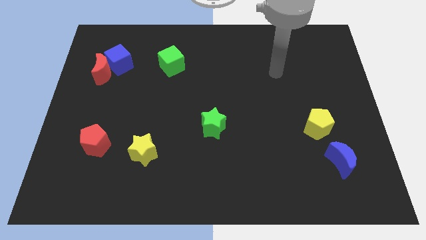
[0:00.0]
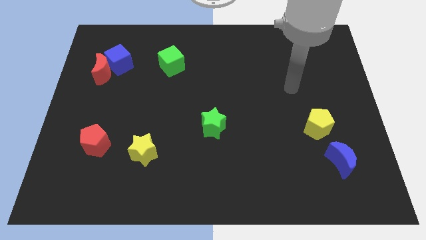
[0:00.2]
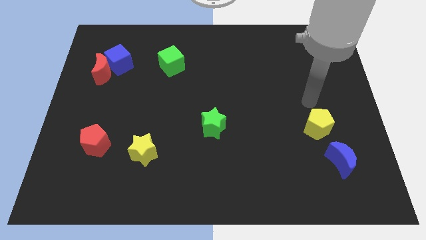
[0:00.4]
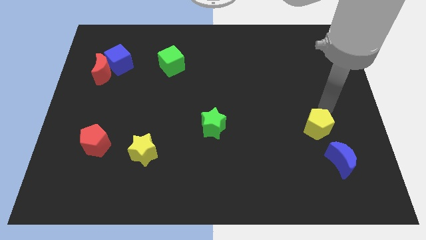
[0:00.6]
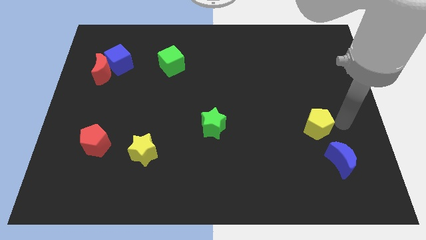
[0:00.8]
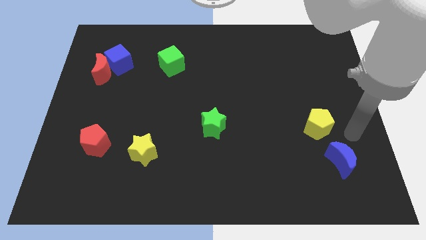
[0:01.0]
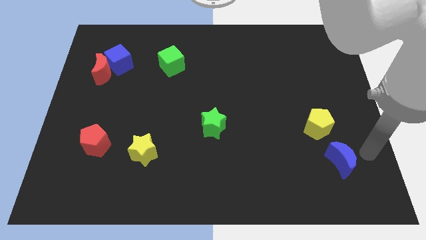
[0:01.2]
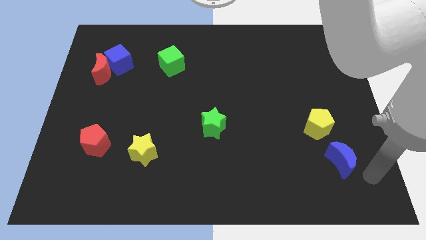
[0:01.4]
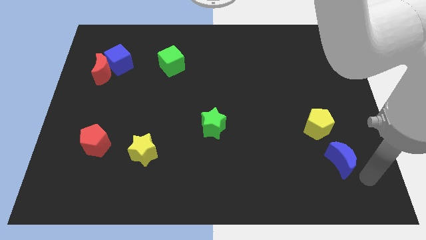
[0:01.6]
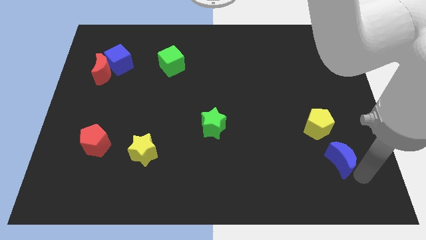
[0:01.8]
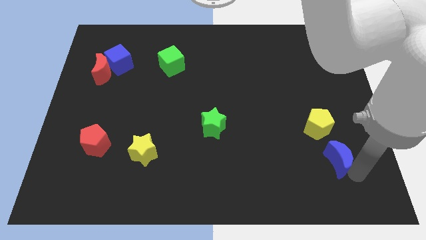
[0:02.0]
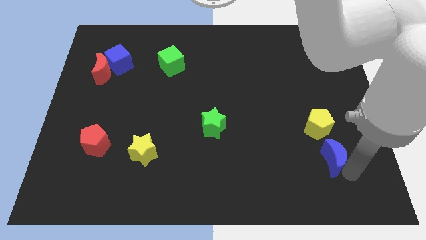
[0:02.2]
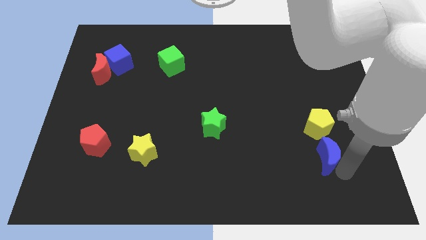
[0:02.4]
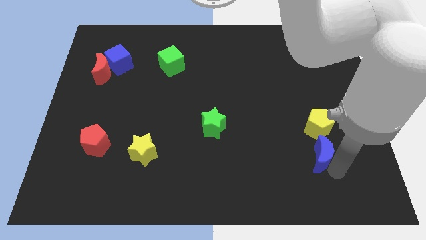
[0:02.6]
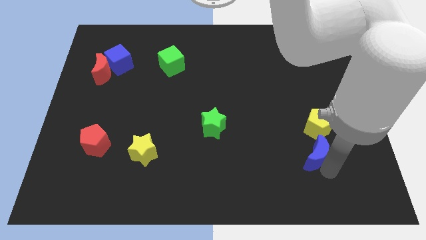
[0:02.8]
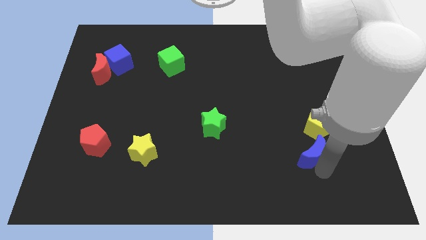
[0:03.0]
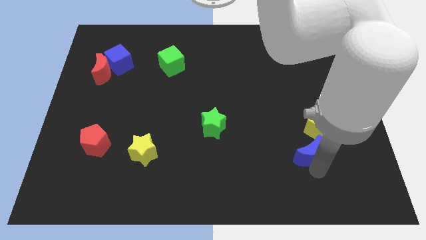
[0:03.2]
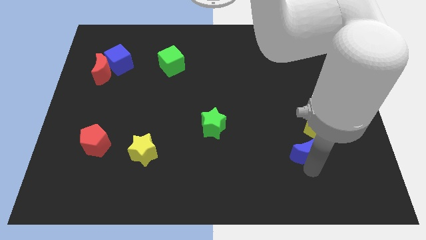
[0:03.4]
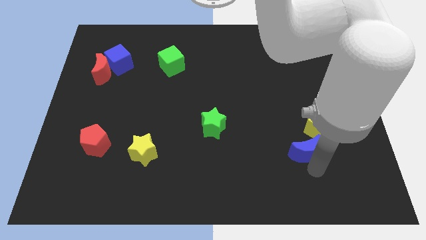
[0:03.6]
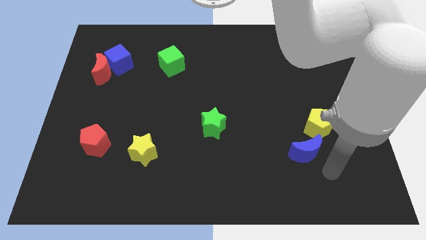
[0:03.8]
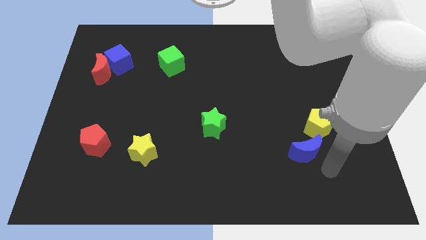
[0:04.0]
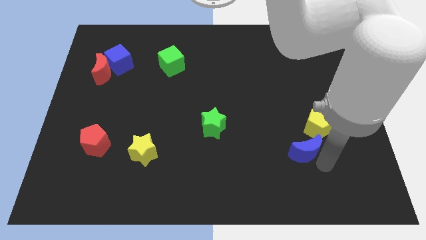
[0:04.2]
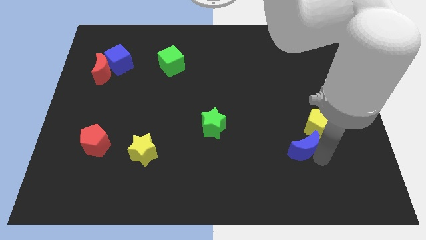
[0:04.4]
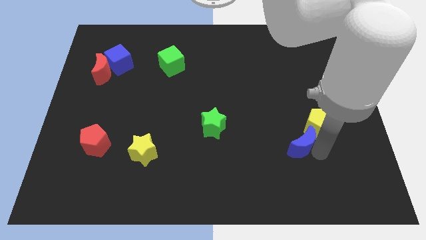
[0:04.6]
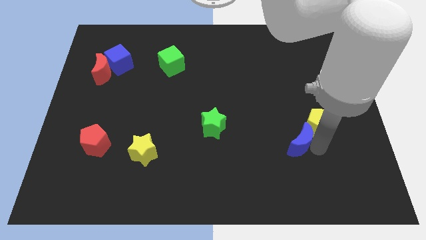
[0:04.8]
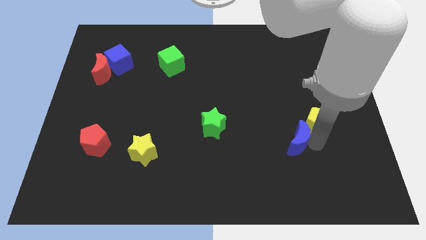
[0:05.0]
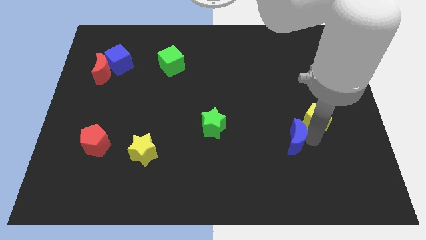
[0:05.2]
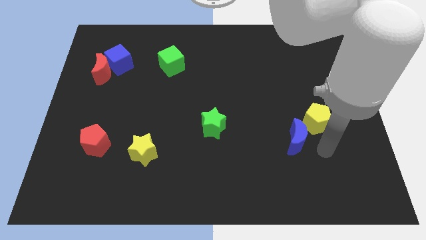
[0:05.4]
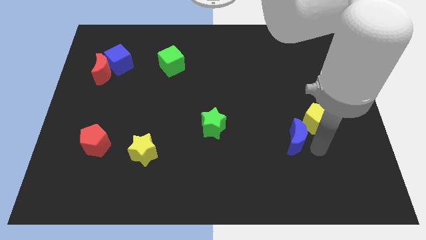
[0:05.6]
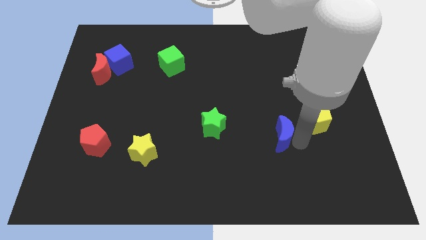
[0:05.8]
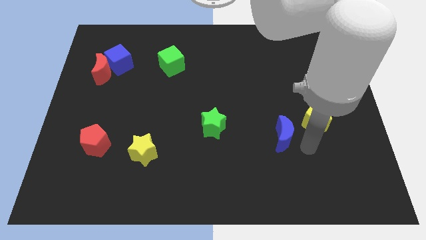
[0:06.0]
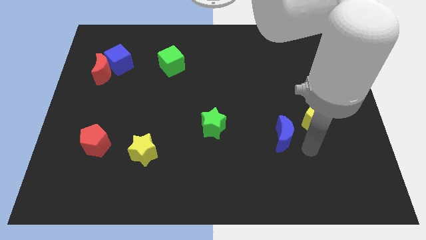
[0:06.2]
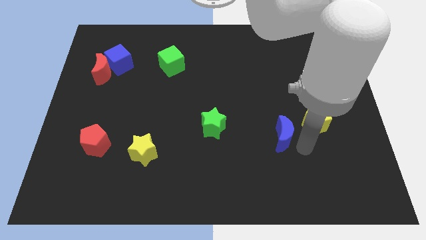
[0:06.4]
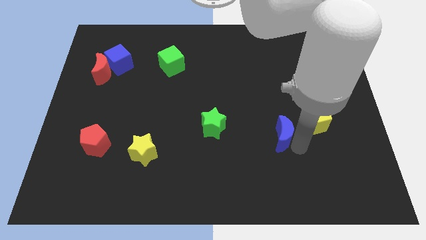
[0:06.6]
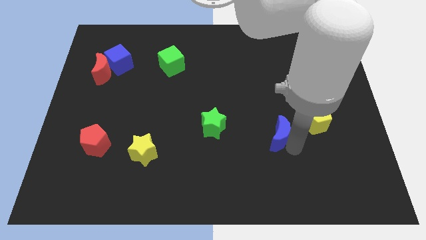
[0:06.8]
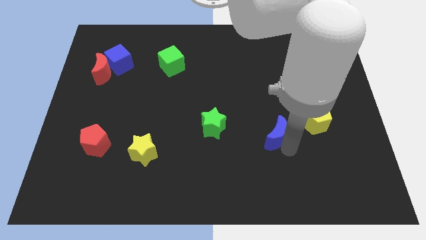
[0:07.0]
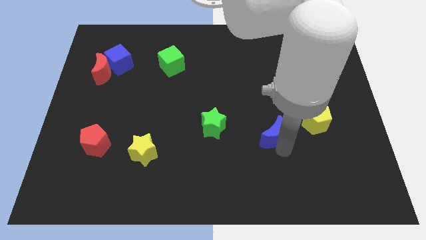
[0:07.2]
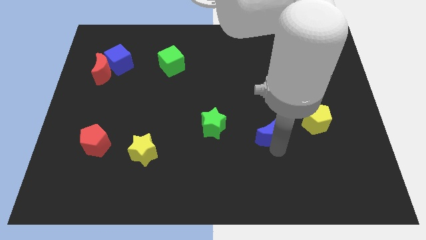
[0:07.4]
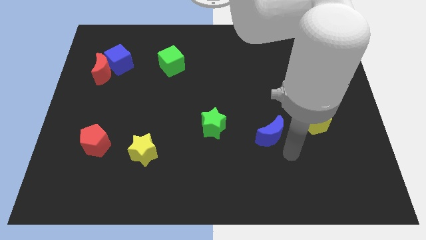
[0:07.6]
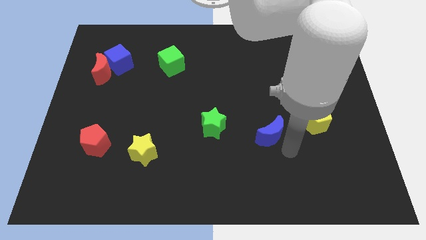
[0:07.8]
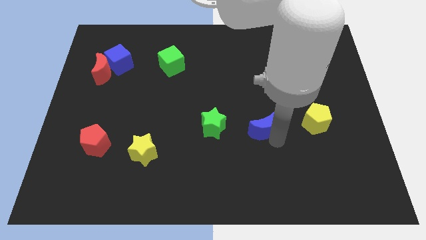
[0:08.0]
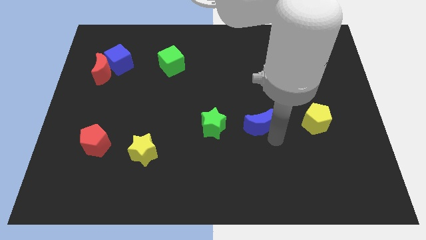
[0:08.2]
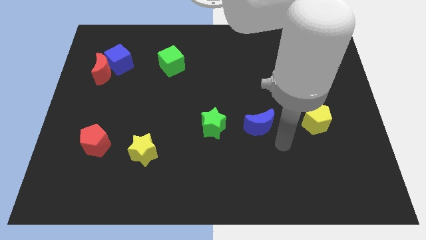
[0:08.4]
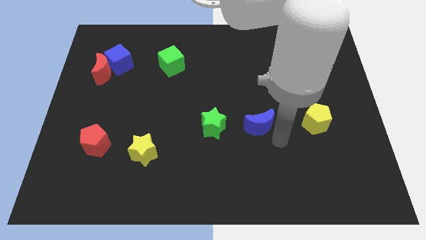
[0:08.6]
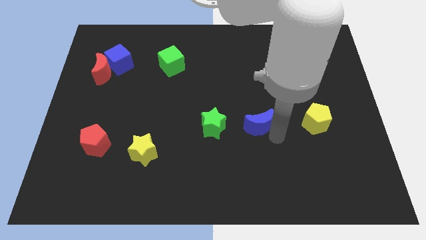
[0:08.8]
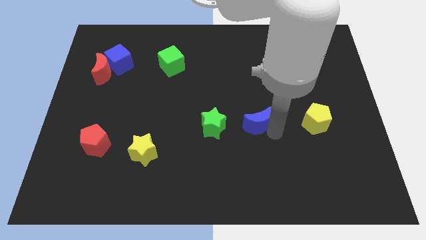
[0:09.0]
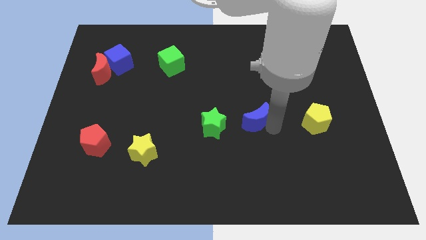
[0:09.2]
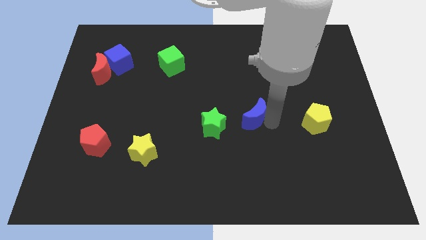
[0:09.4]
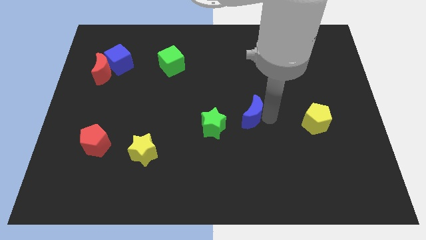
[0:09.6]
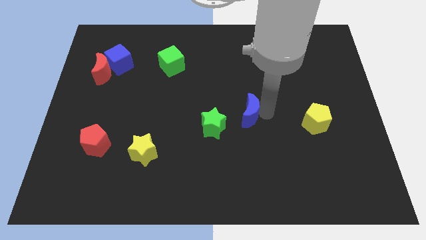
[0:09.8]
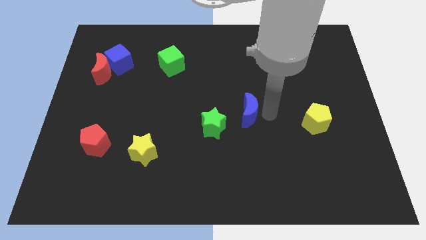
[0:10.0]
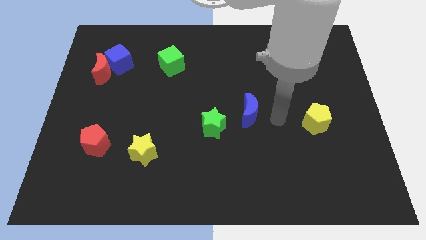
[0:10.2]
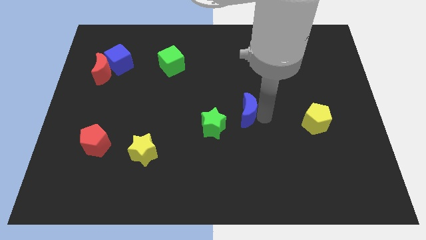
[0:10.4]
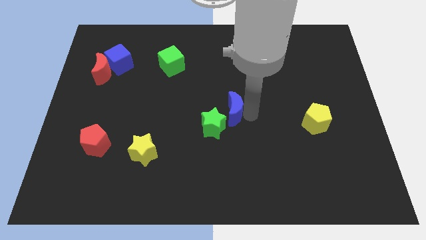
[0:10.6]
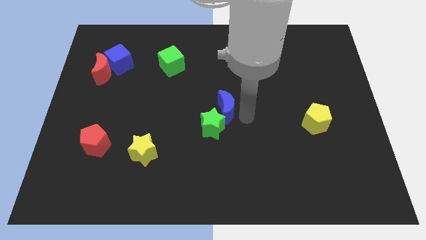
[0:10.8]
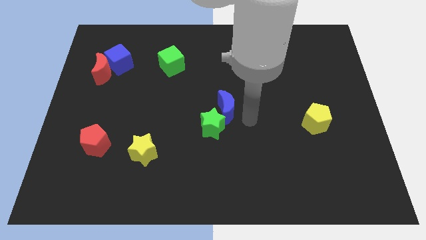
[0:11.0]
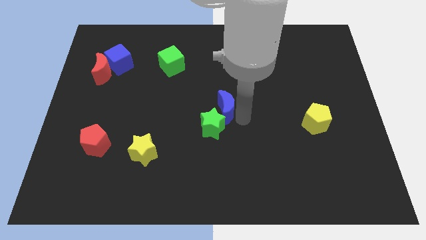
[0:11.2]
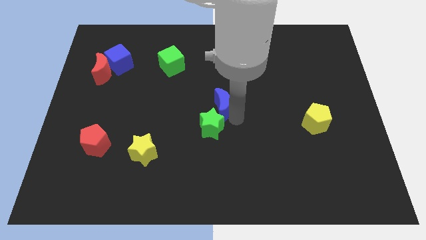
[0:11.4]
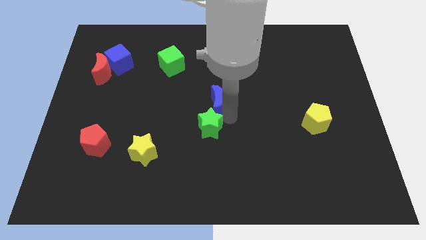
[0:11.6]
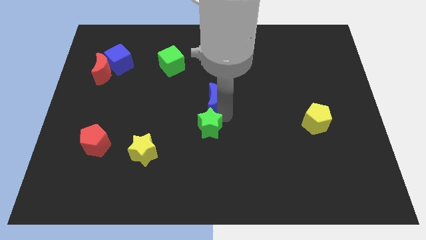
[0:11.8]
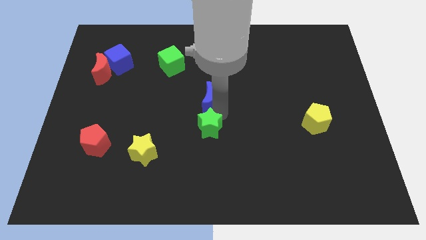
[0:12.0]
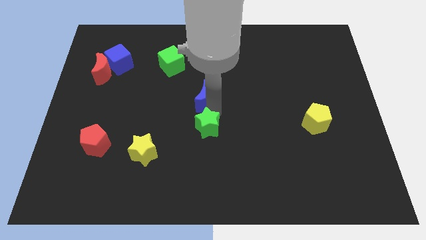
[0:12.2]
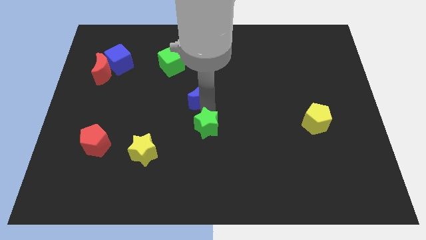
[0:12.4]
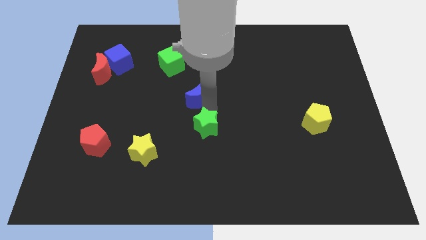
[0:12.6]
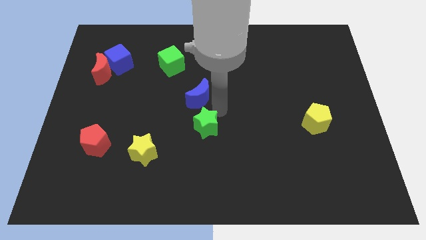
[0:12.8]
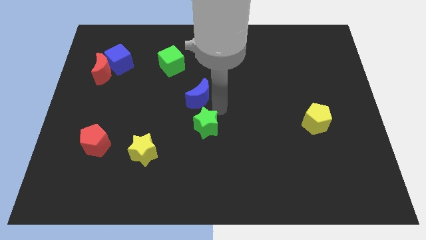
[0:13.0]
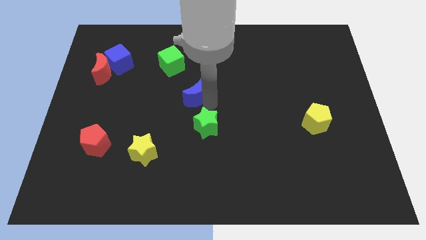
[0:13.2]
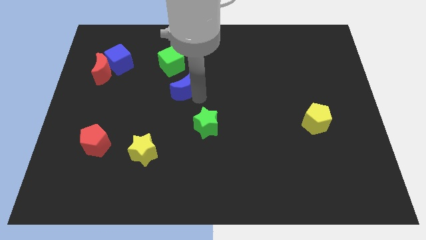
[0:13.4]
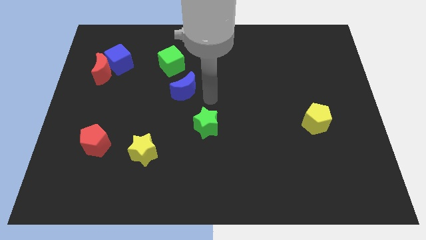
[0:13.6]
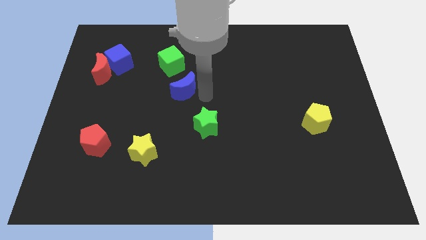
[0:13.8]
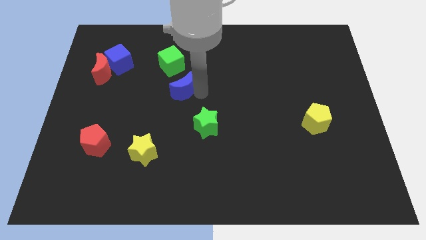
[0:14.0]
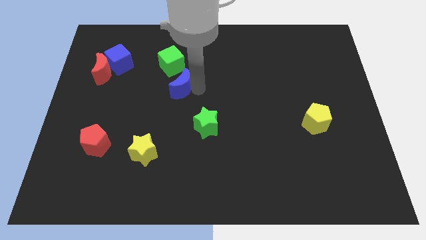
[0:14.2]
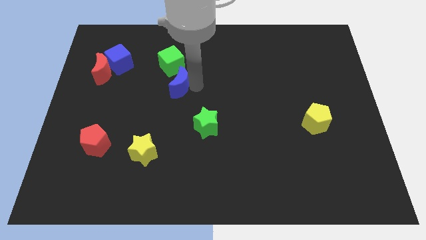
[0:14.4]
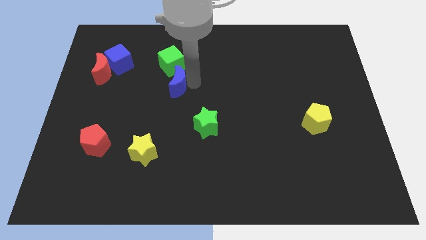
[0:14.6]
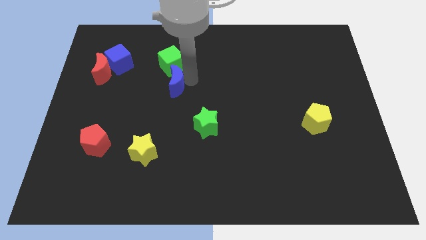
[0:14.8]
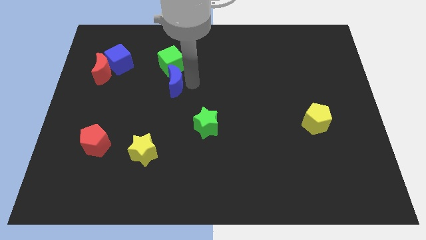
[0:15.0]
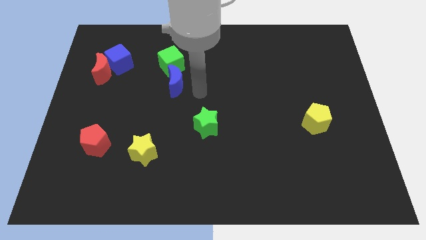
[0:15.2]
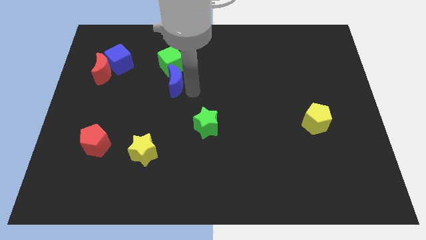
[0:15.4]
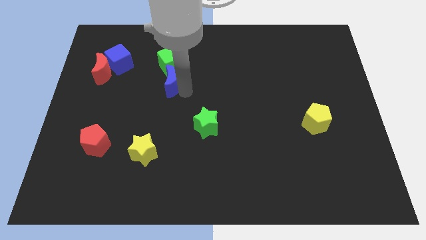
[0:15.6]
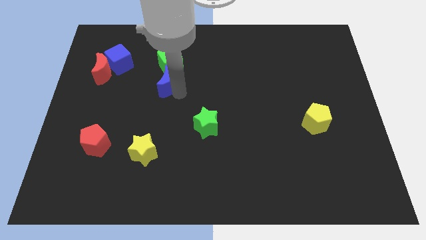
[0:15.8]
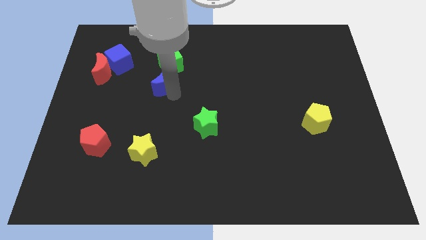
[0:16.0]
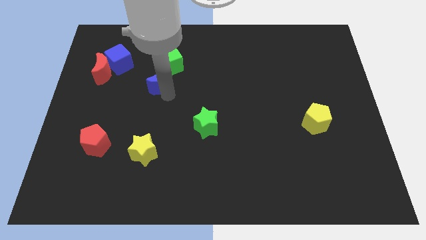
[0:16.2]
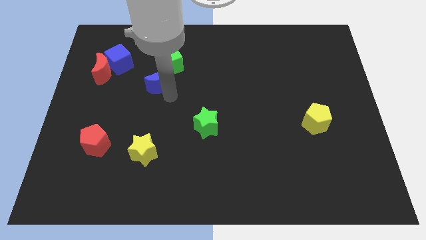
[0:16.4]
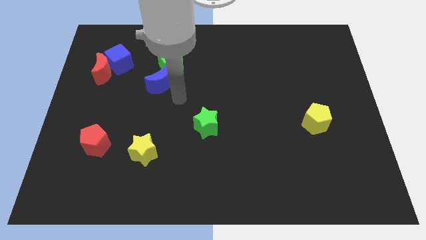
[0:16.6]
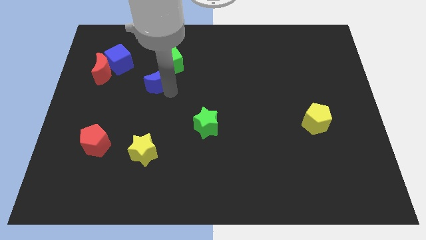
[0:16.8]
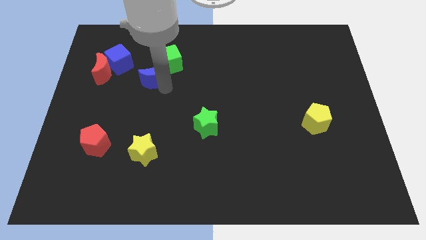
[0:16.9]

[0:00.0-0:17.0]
move the blue moon to the right side of the red moon
